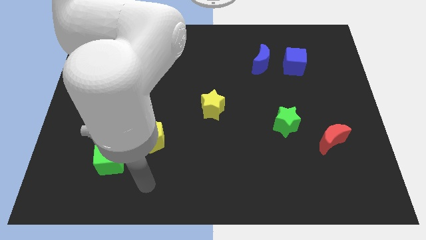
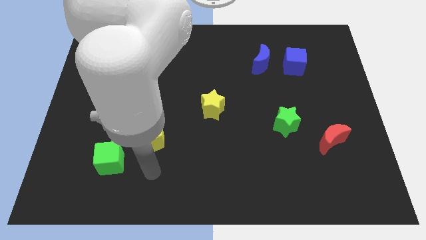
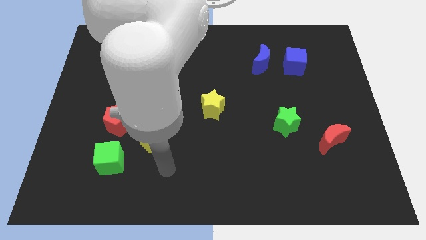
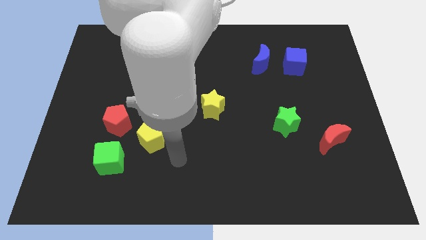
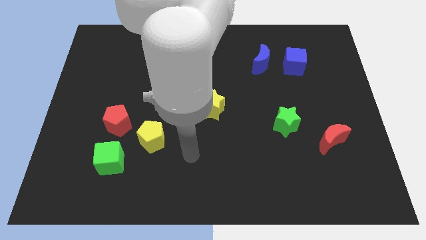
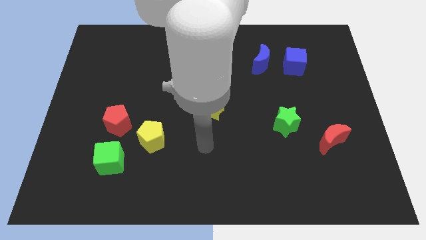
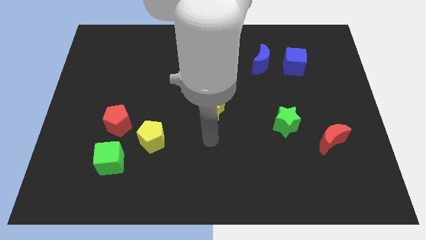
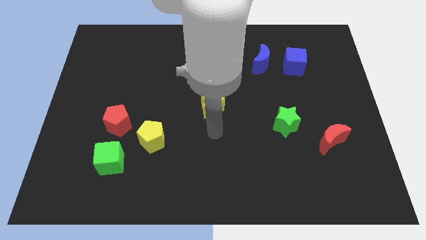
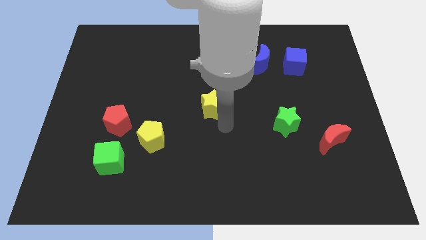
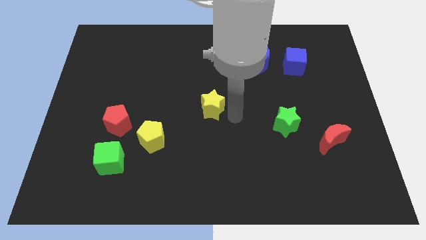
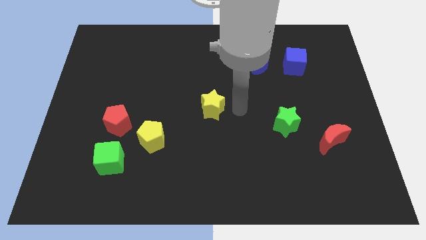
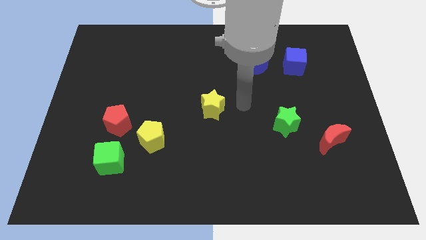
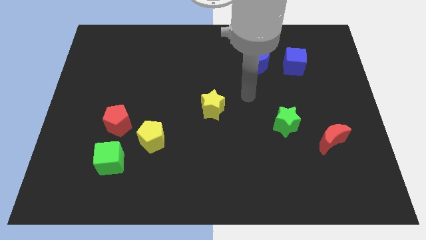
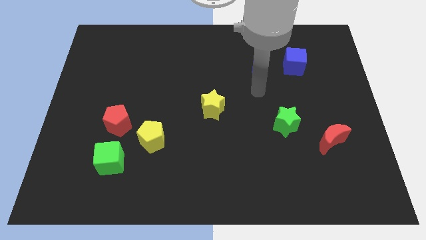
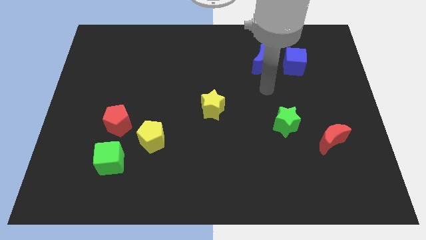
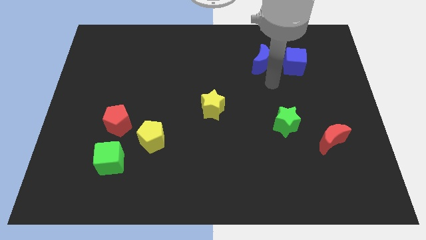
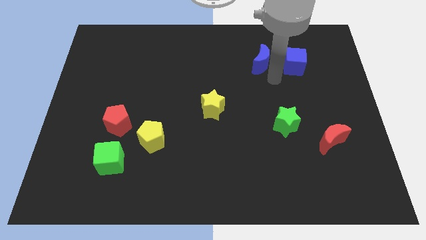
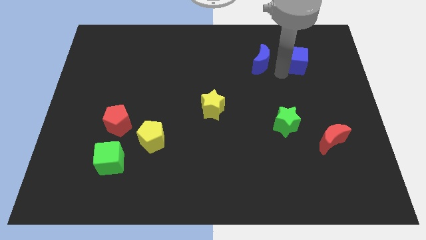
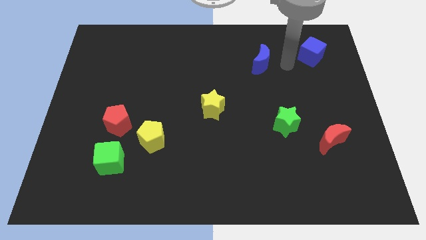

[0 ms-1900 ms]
pull the blue moon apart from the blue cube

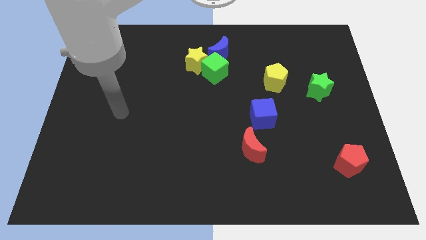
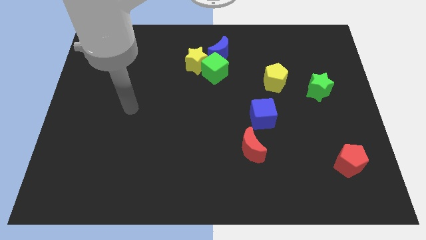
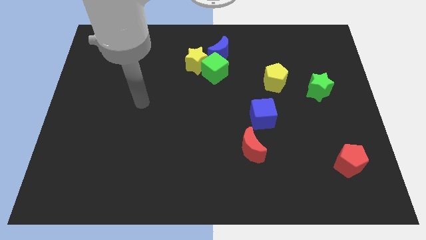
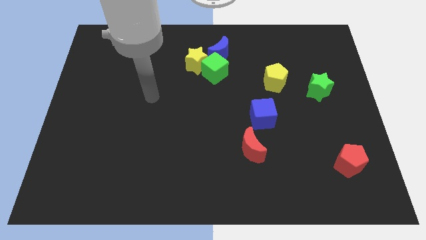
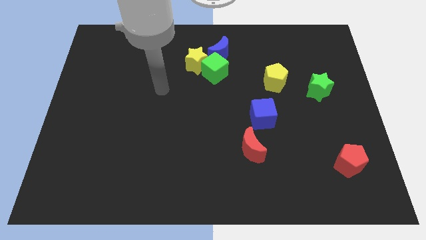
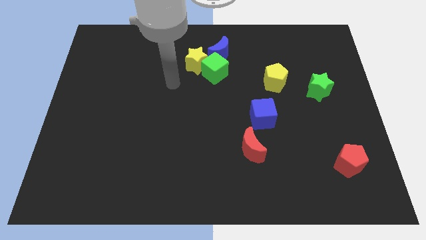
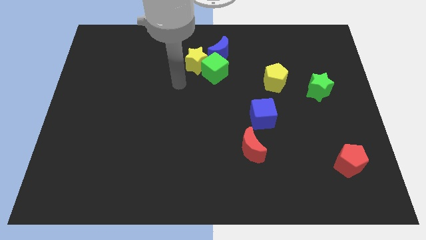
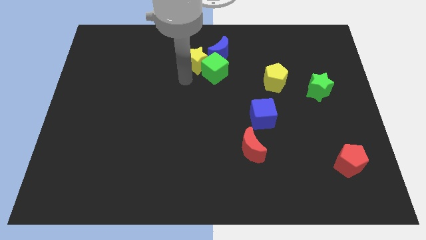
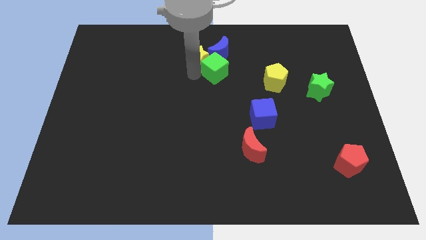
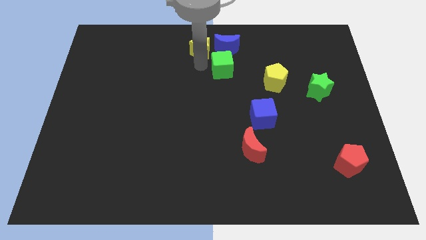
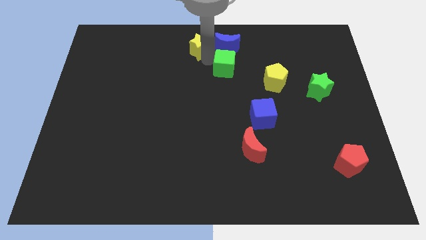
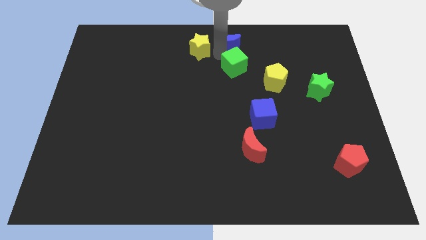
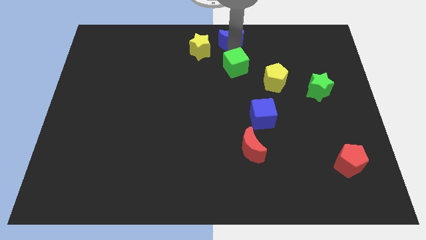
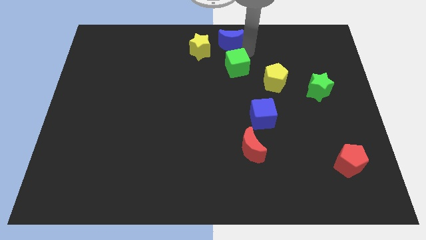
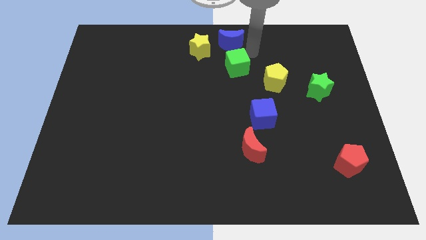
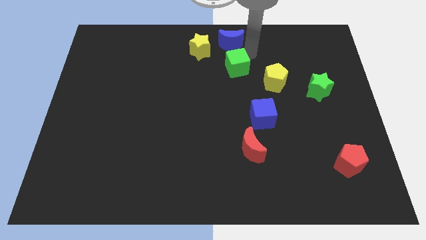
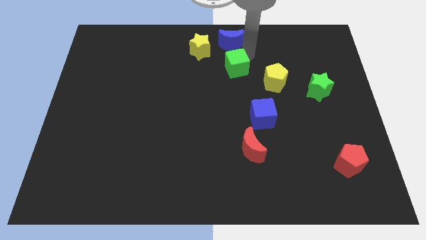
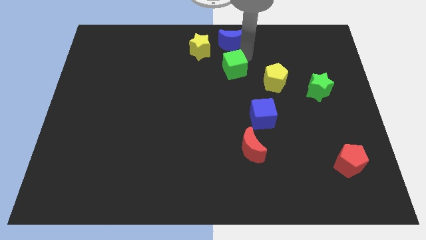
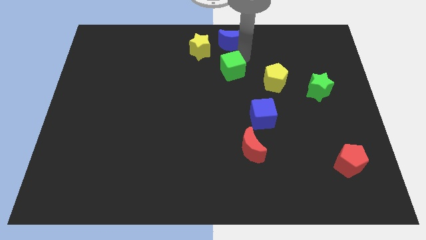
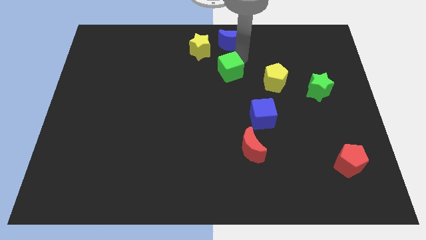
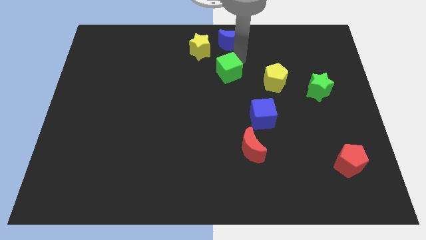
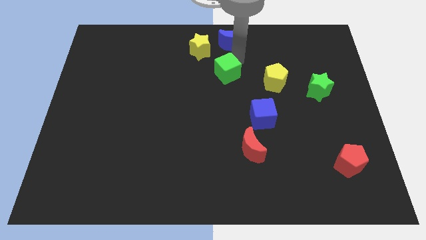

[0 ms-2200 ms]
pull the green cube apart from the yellow star and blue moon

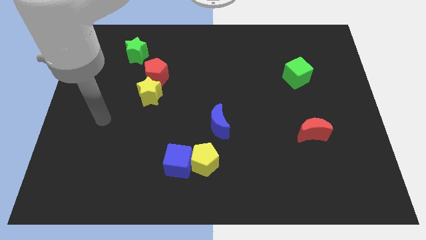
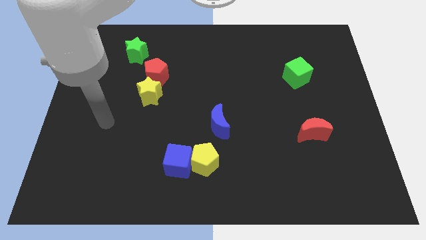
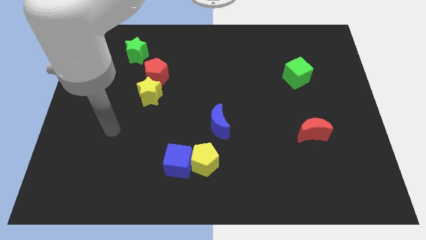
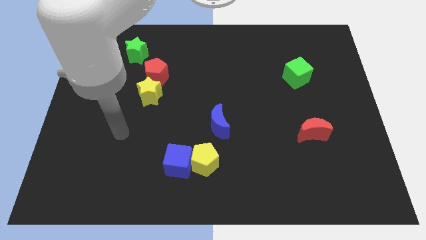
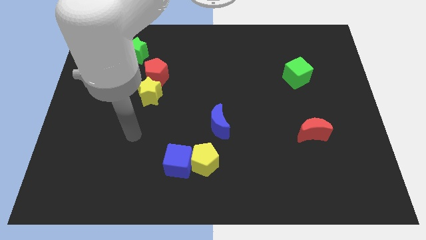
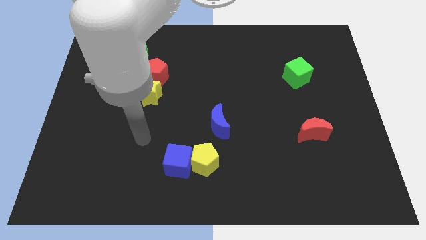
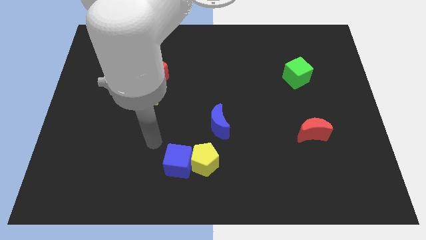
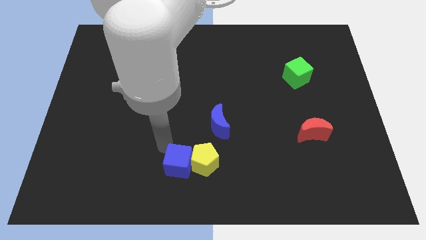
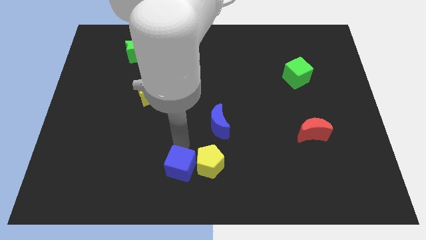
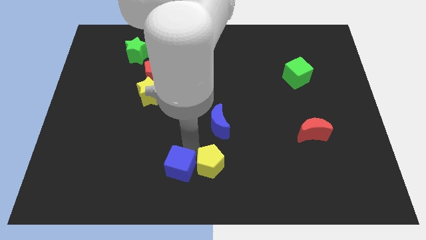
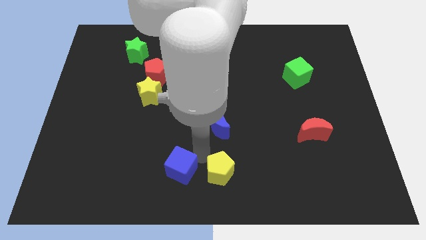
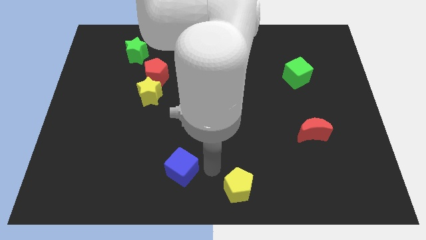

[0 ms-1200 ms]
pull the blue cube apart from the yellow pentagon

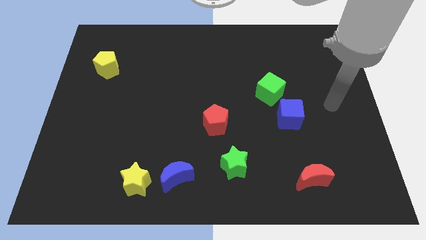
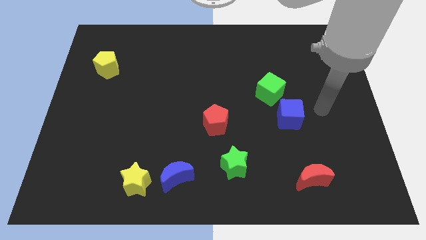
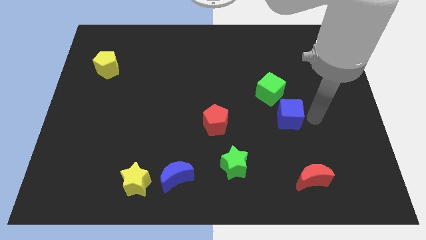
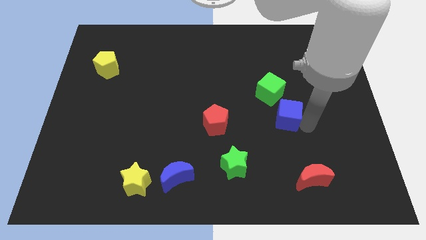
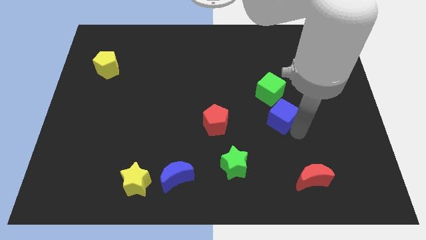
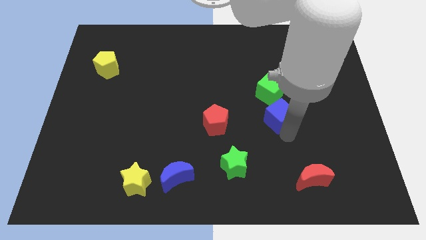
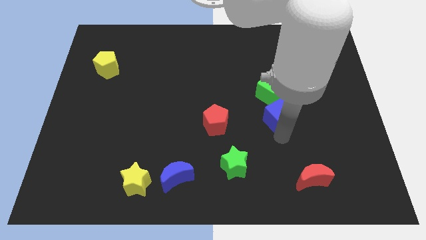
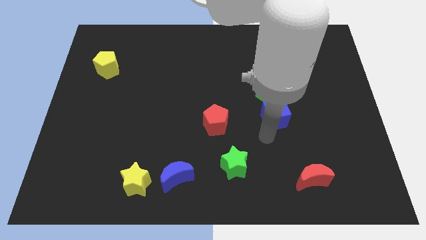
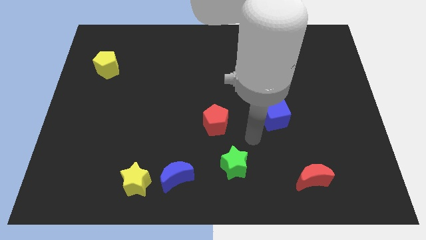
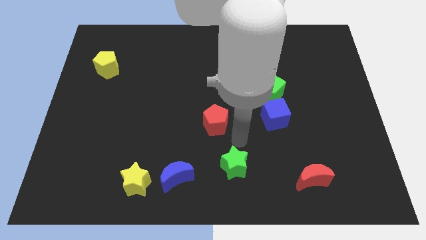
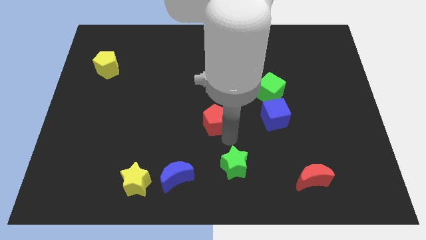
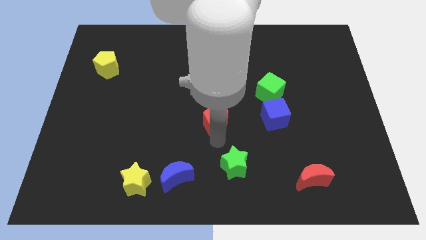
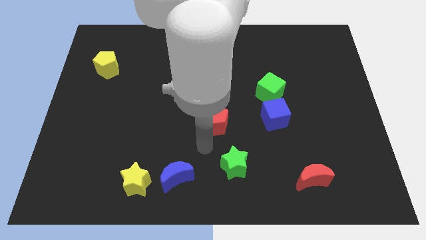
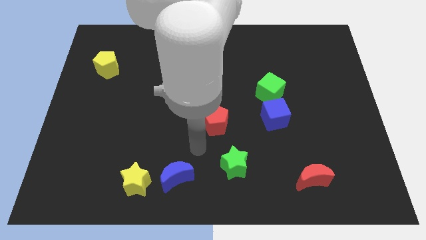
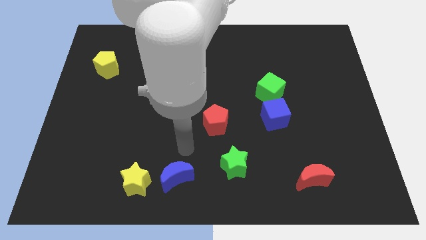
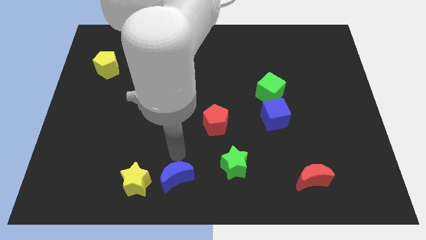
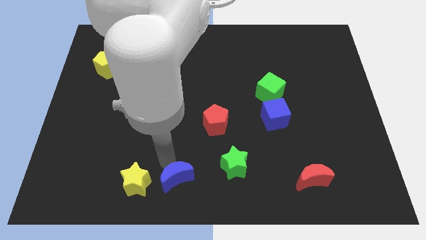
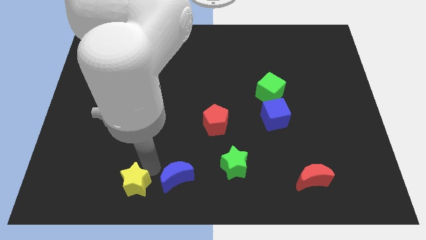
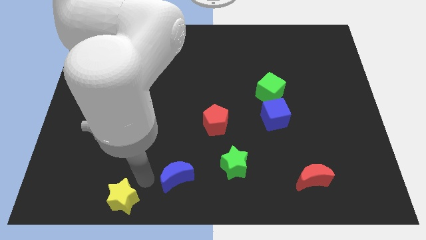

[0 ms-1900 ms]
move the blue moon away from the yellow star

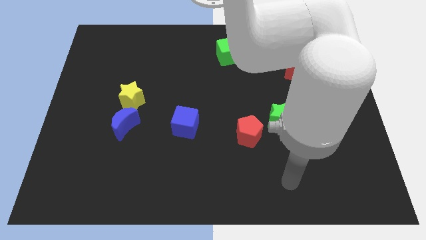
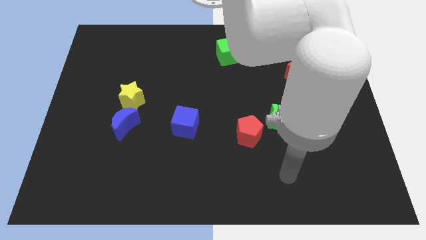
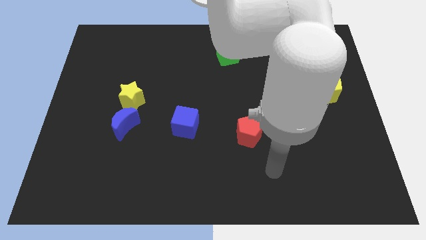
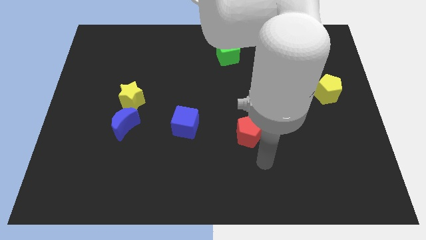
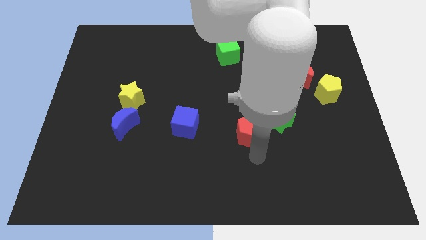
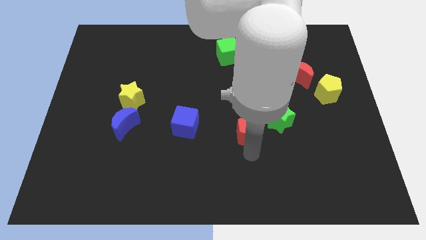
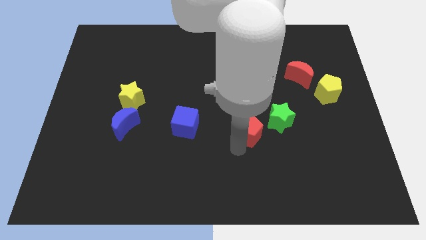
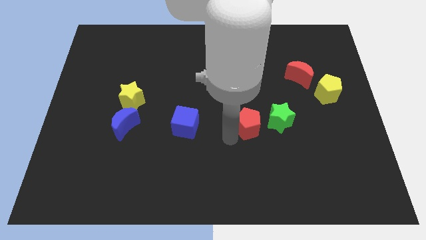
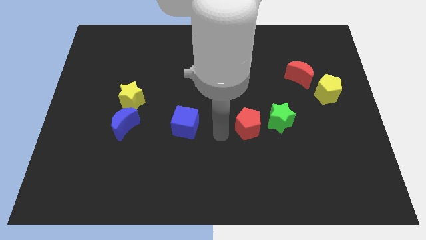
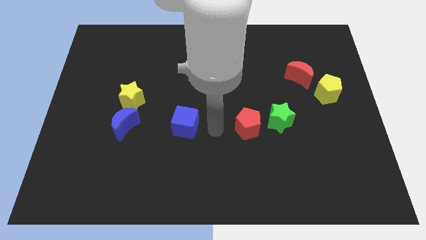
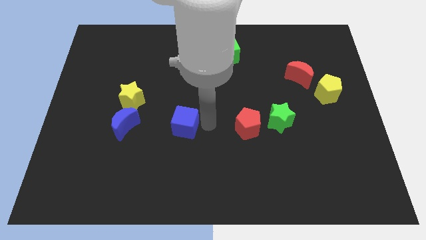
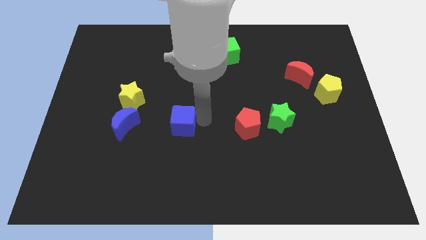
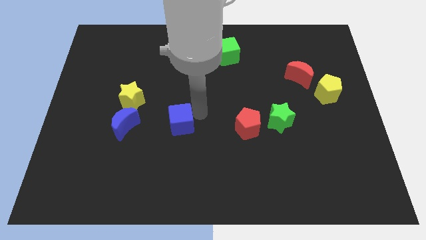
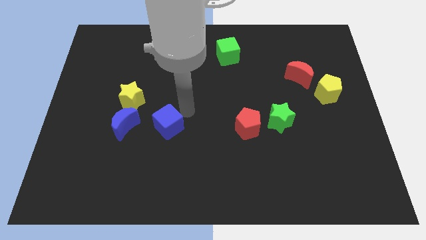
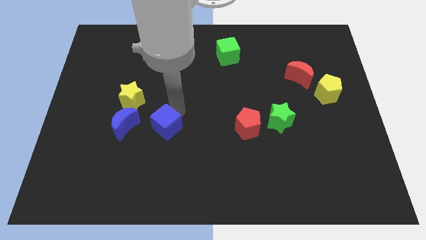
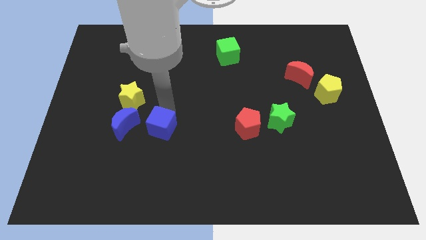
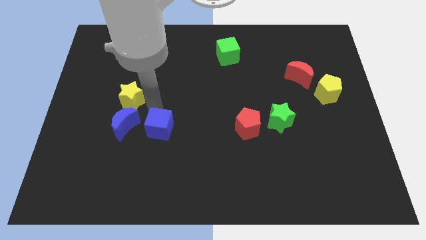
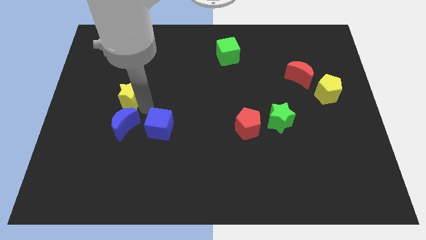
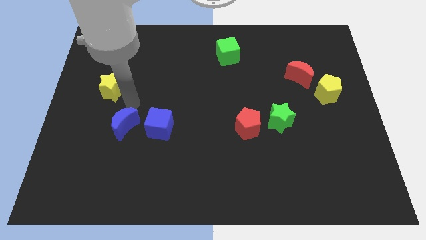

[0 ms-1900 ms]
pull the blue moon apart from the yellow star

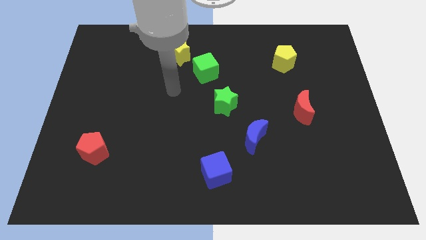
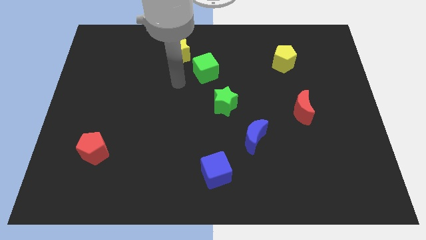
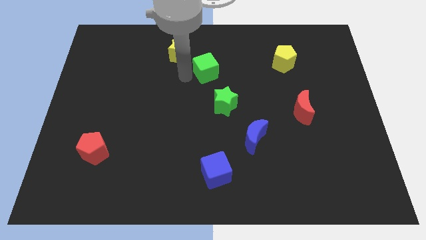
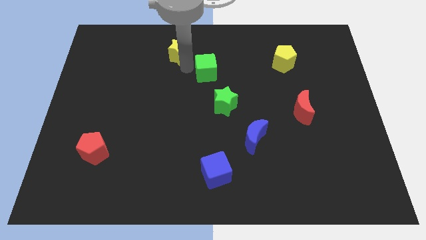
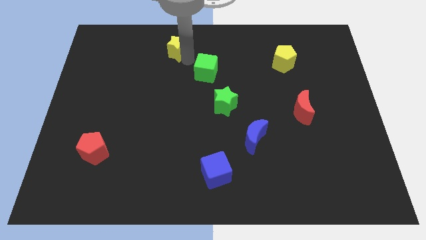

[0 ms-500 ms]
separate the green cube from the yellow star
